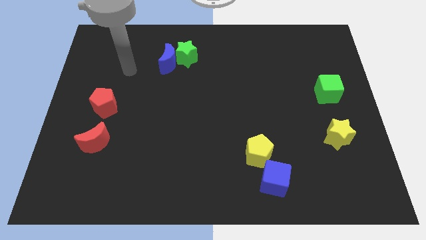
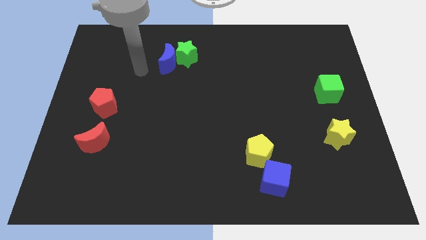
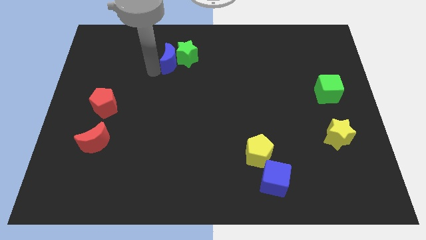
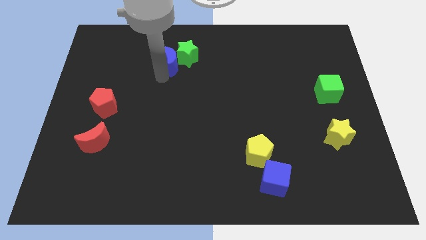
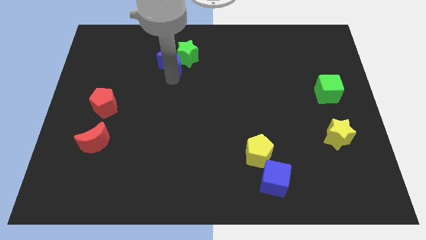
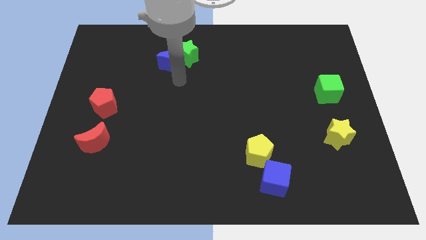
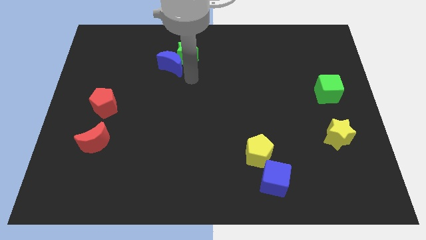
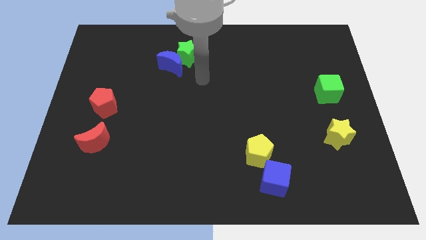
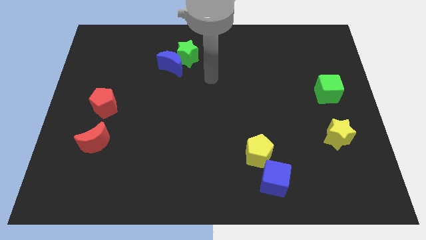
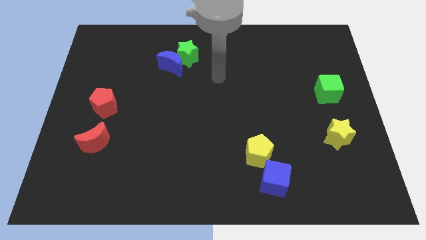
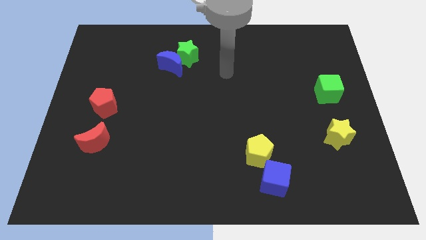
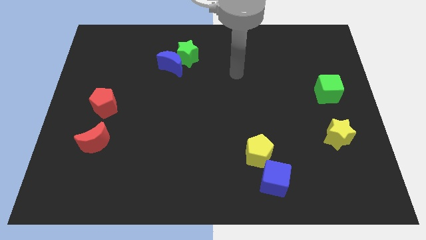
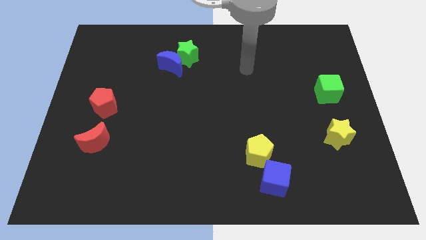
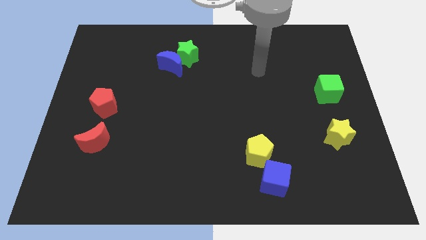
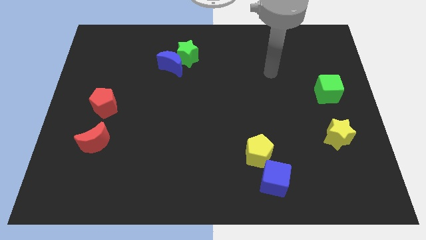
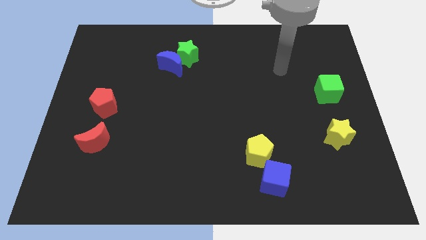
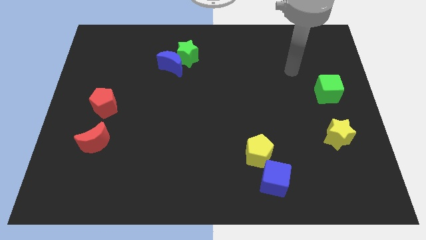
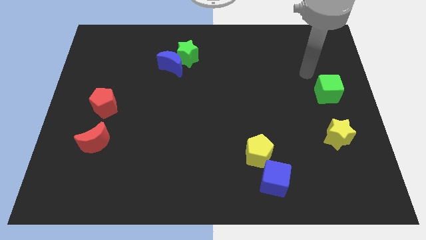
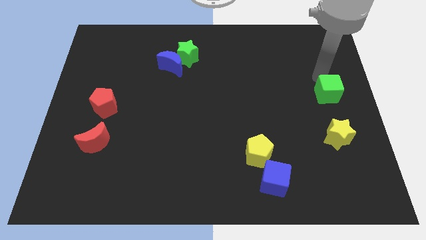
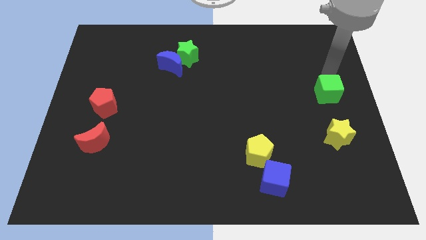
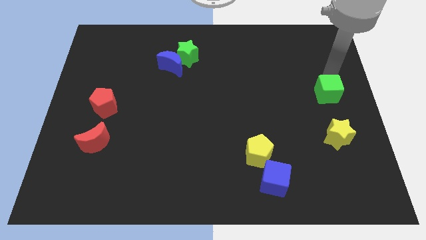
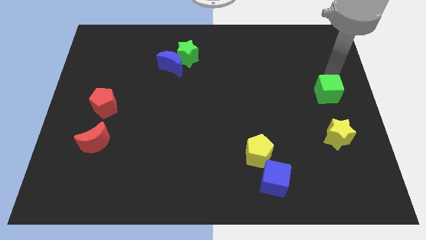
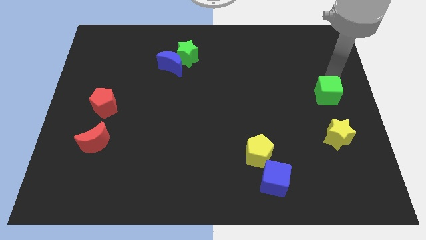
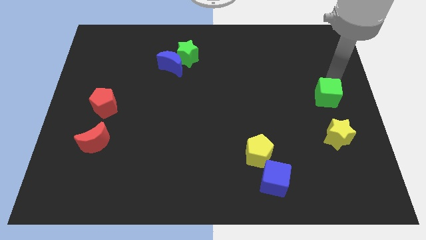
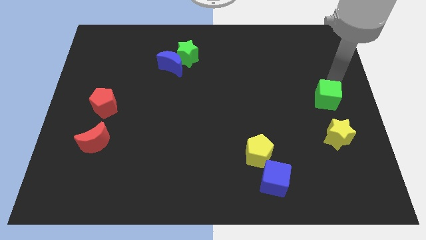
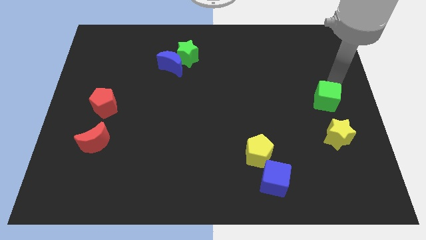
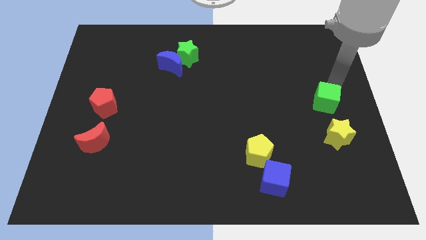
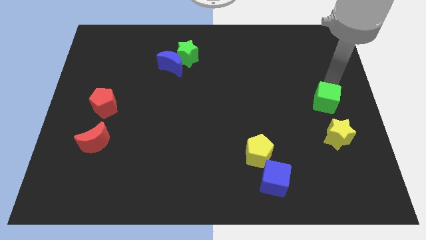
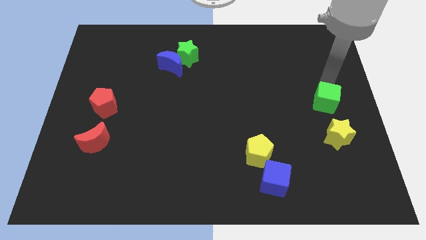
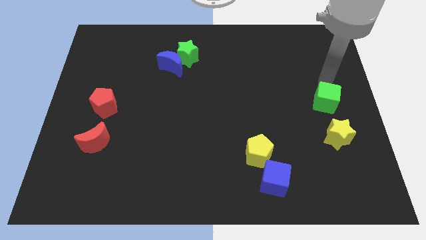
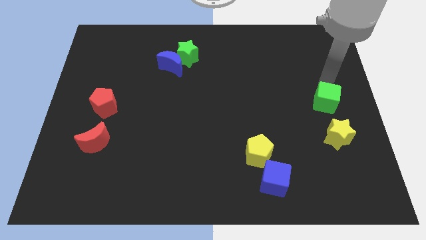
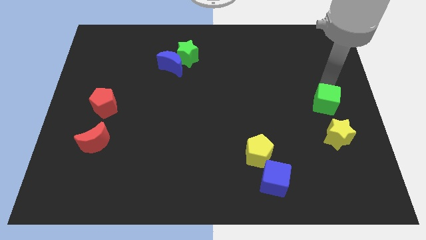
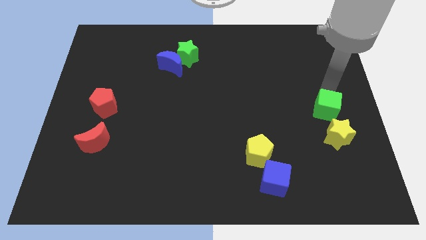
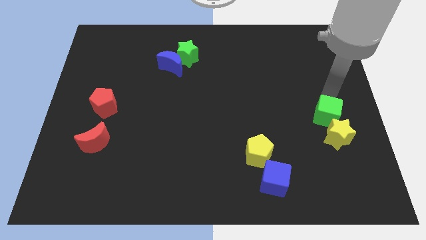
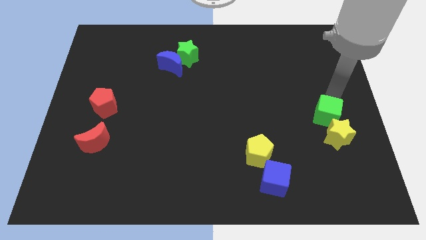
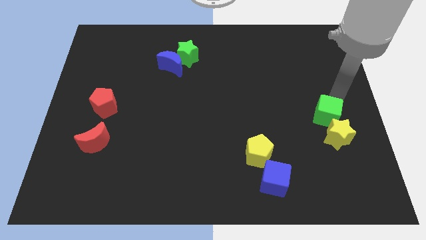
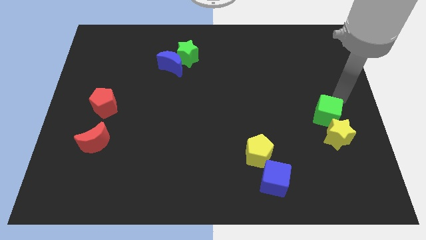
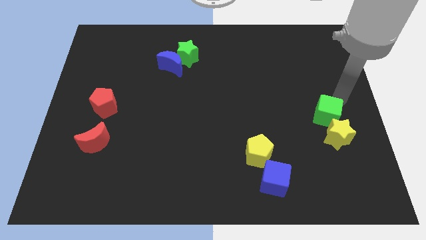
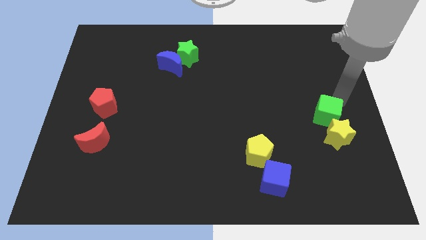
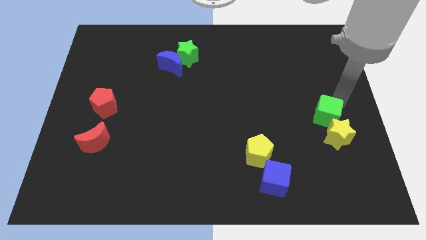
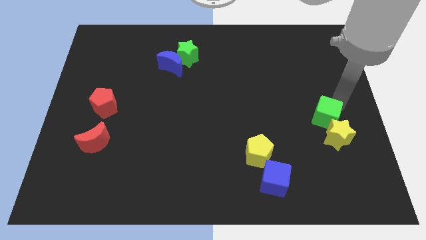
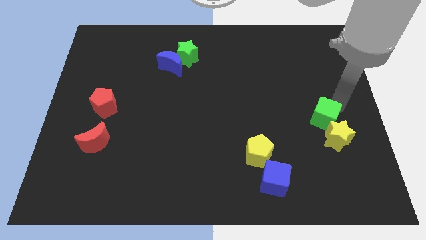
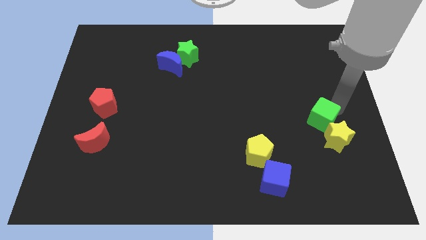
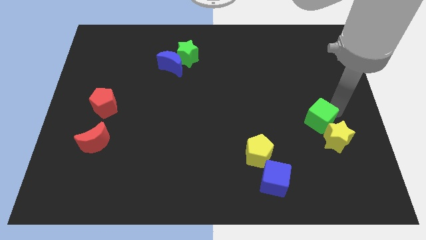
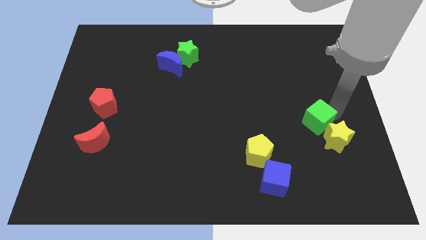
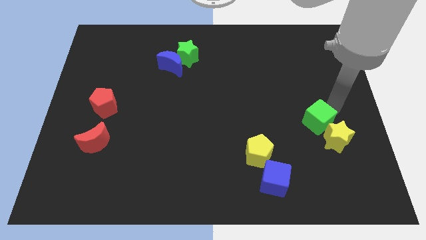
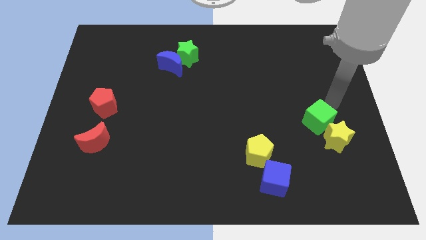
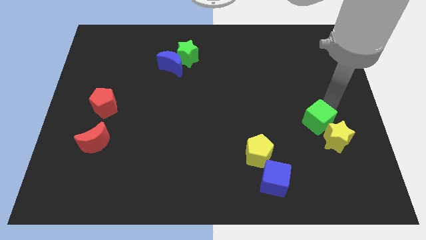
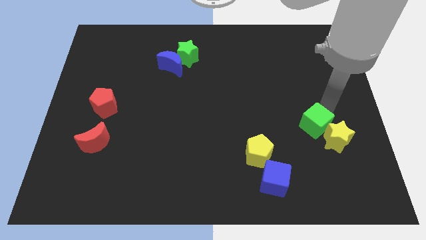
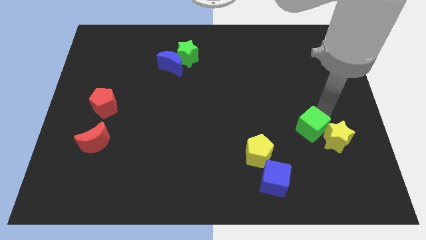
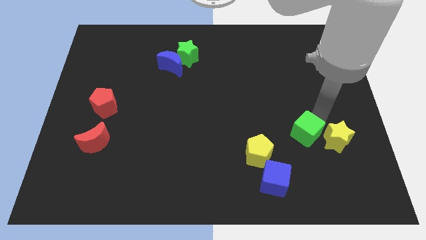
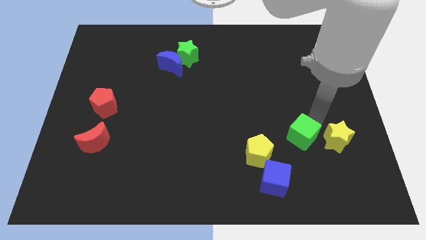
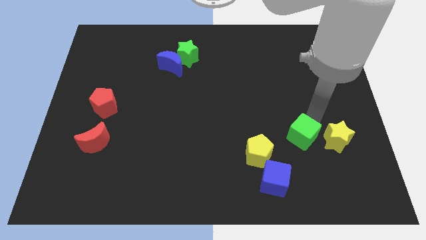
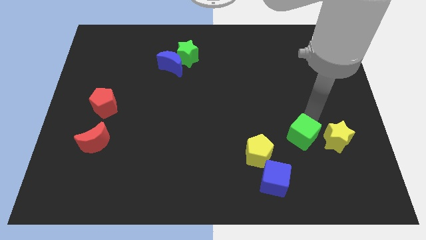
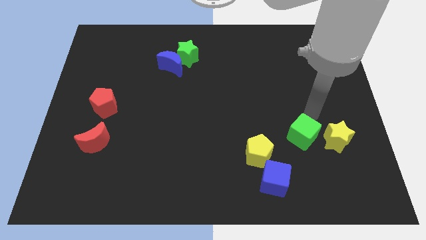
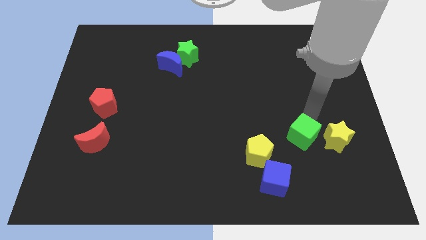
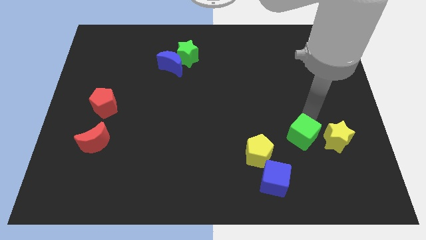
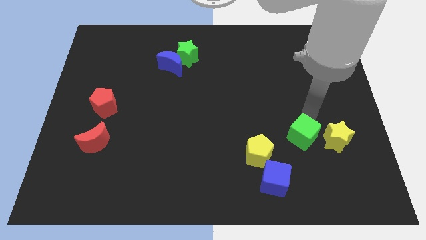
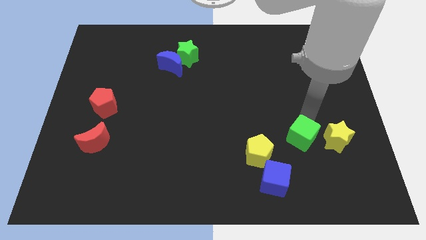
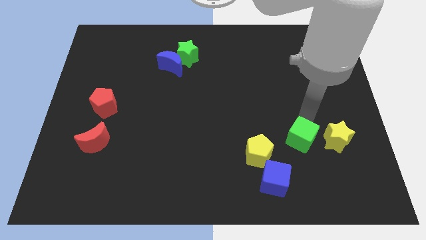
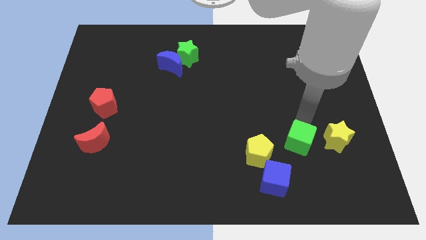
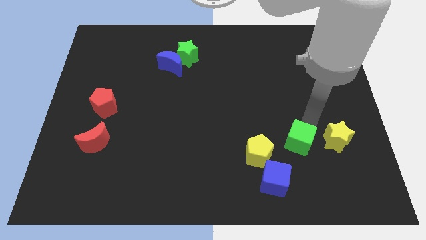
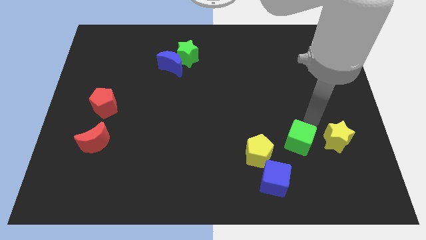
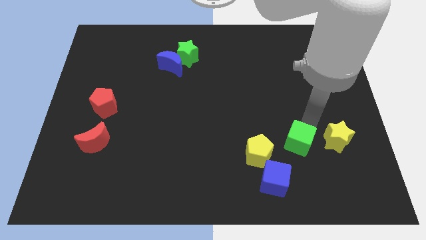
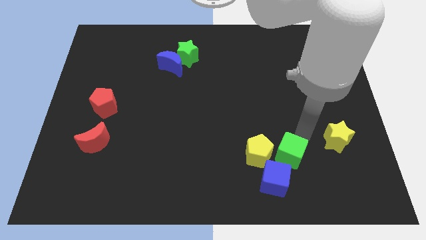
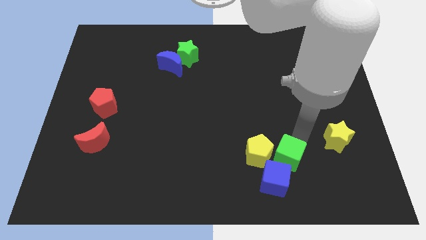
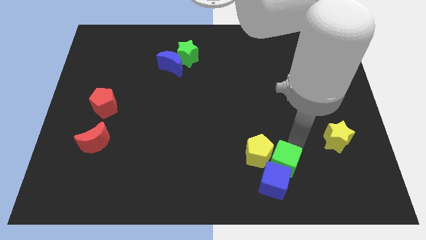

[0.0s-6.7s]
move the green cube close to the blue cube
